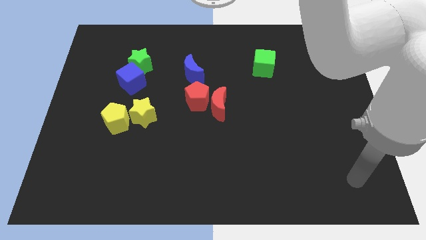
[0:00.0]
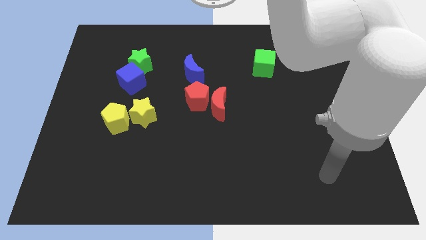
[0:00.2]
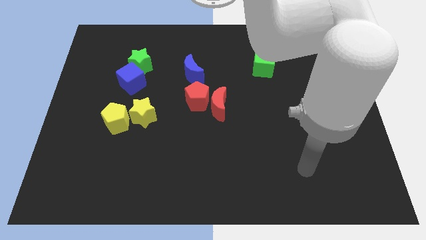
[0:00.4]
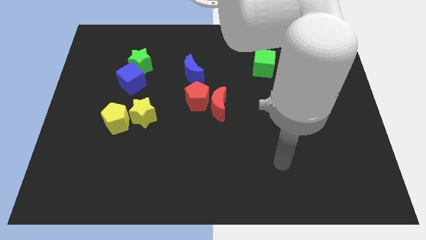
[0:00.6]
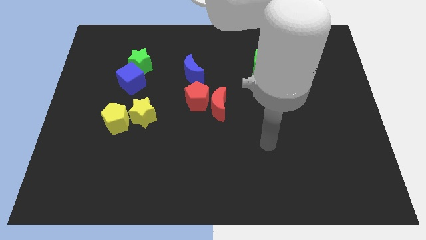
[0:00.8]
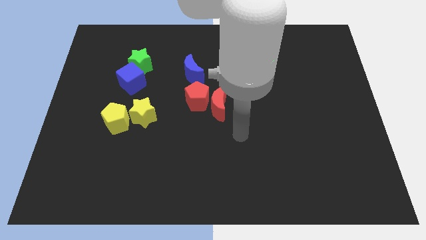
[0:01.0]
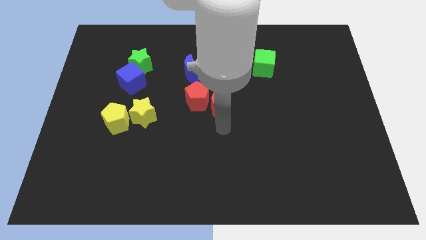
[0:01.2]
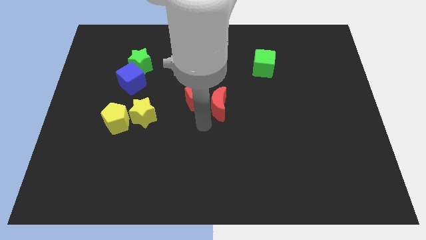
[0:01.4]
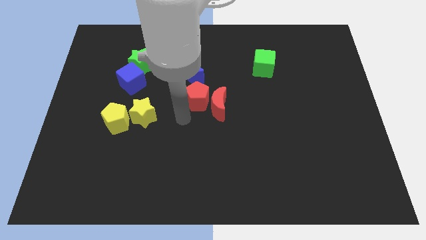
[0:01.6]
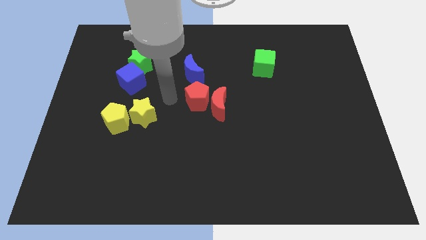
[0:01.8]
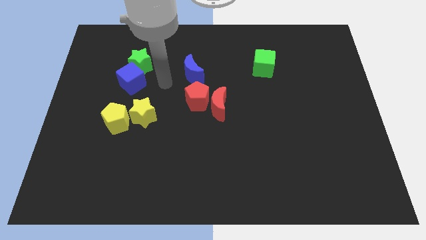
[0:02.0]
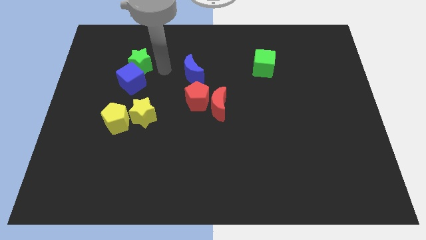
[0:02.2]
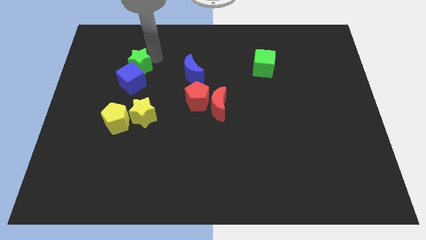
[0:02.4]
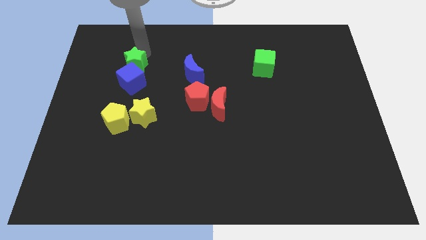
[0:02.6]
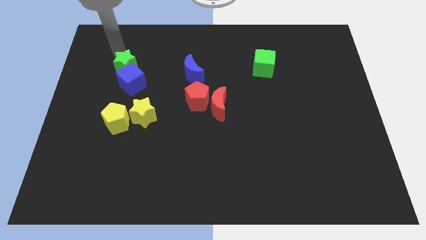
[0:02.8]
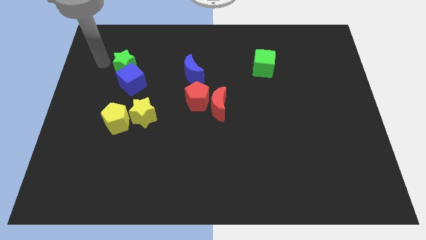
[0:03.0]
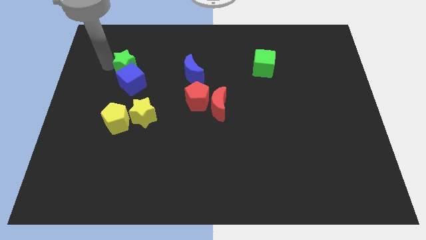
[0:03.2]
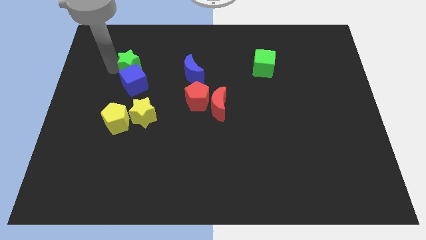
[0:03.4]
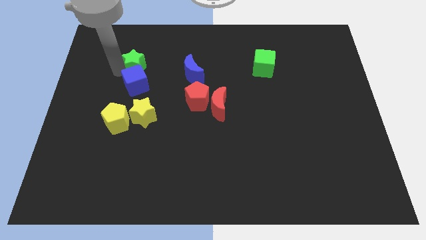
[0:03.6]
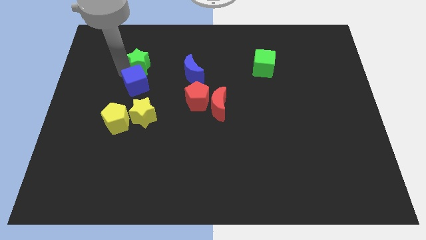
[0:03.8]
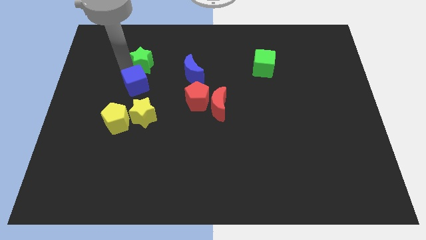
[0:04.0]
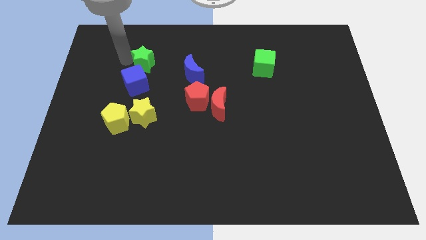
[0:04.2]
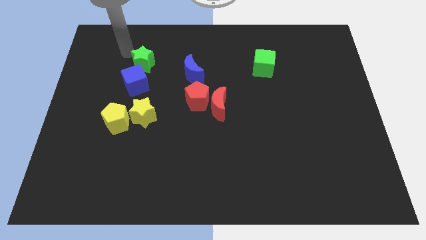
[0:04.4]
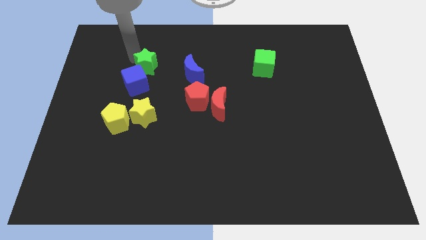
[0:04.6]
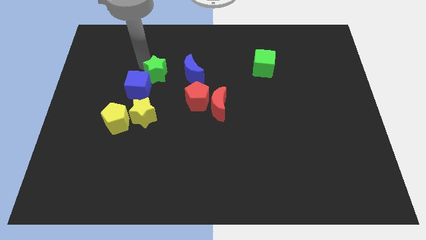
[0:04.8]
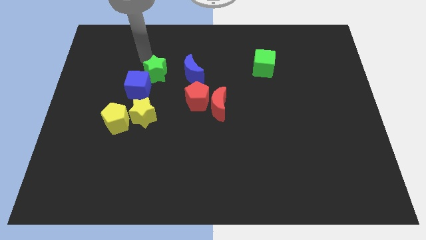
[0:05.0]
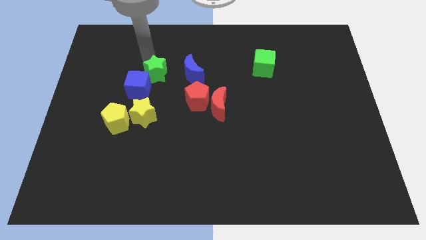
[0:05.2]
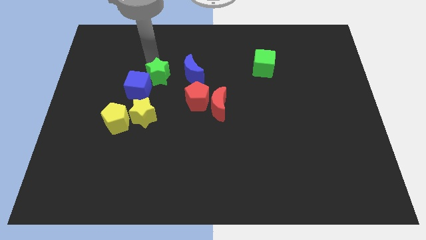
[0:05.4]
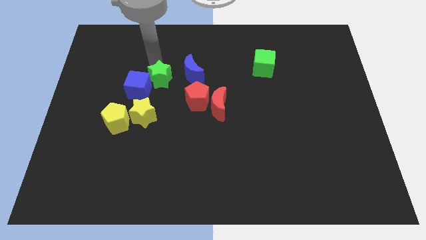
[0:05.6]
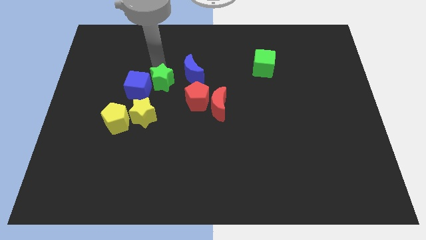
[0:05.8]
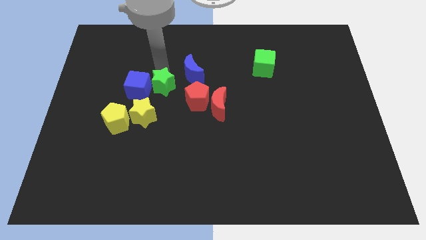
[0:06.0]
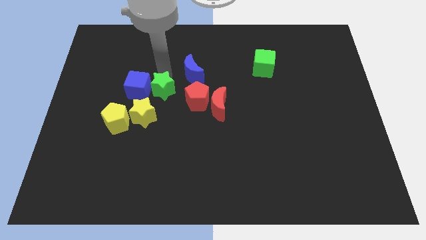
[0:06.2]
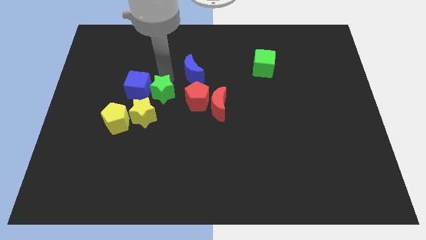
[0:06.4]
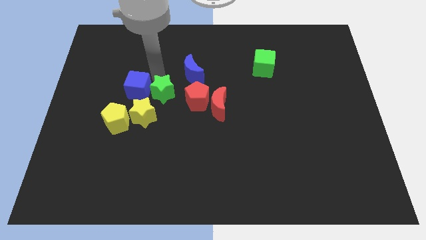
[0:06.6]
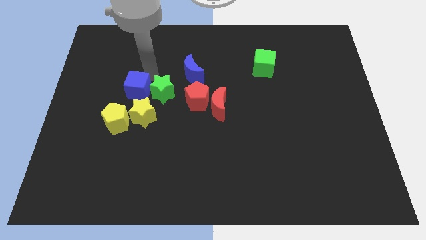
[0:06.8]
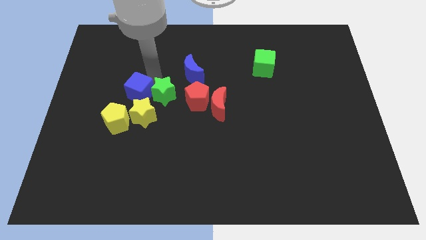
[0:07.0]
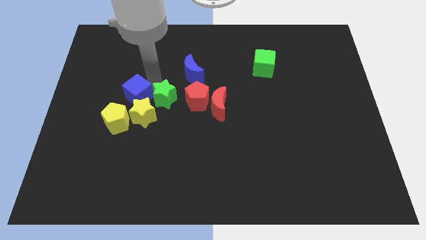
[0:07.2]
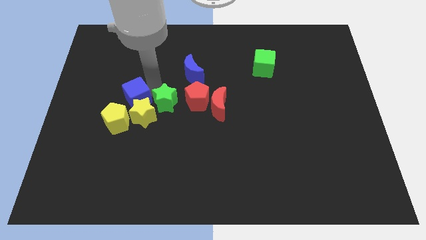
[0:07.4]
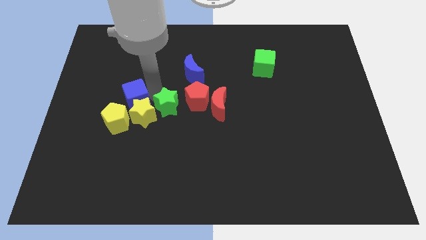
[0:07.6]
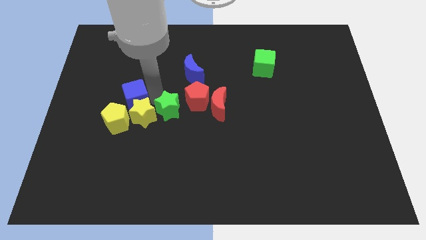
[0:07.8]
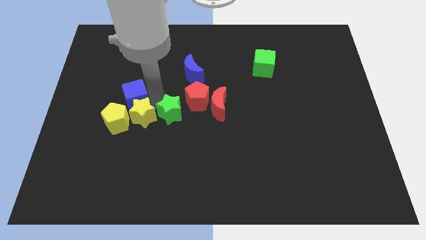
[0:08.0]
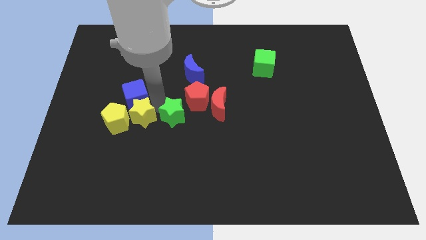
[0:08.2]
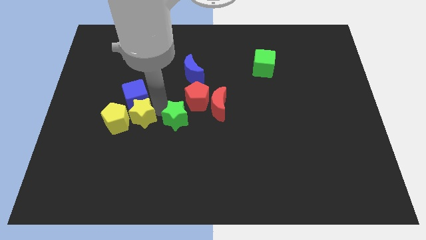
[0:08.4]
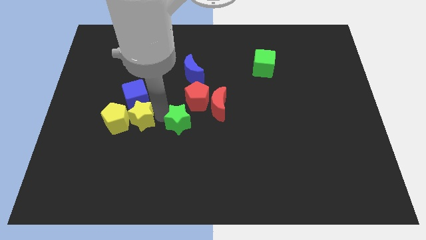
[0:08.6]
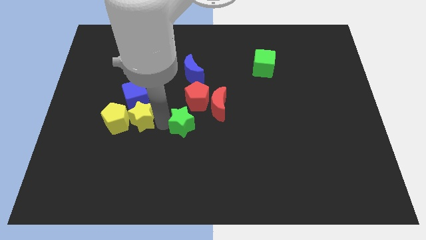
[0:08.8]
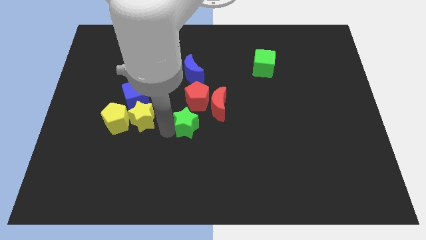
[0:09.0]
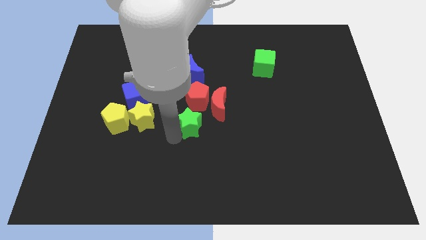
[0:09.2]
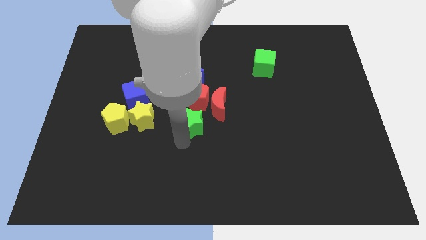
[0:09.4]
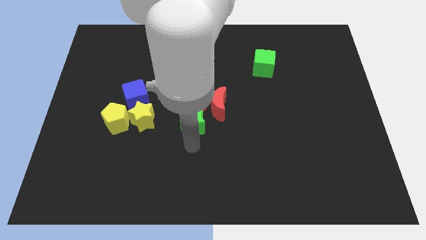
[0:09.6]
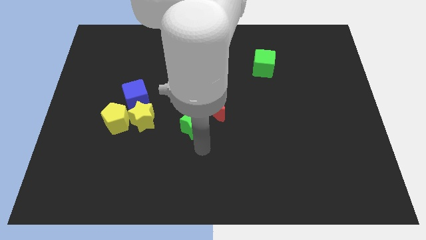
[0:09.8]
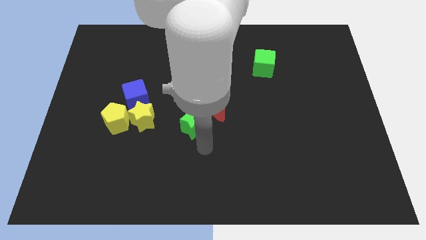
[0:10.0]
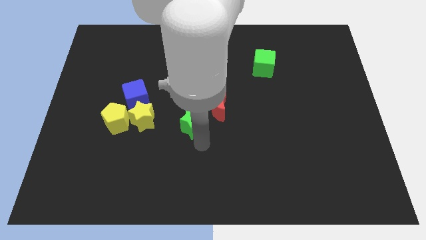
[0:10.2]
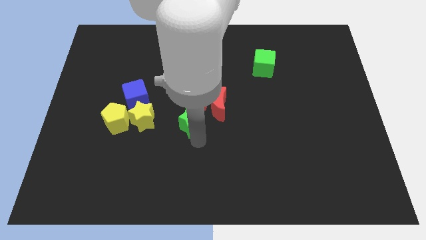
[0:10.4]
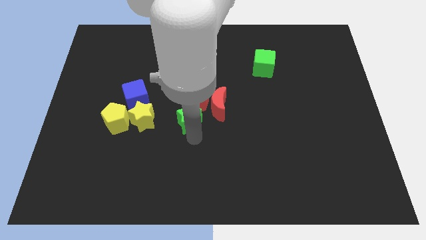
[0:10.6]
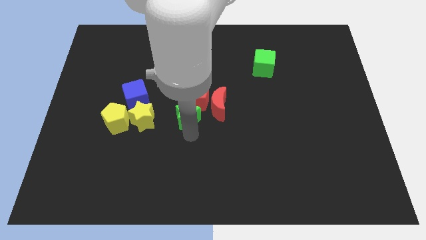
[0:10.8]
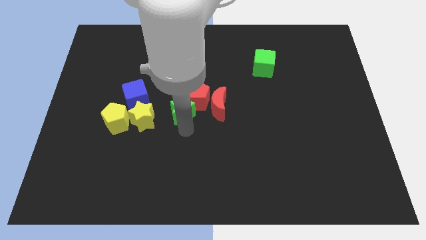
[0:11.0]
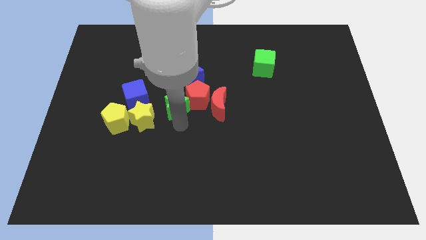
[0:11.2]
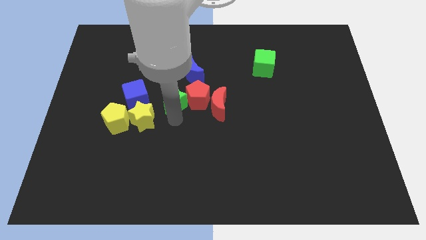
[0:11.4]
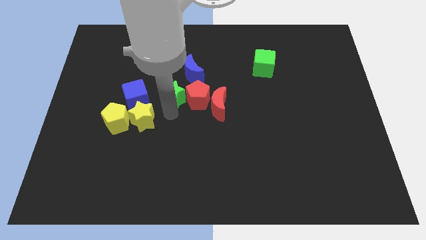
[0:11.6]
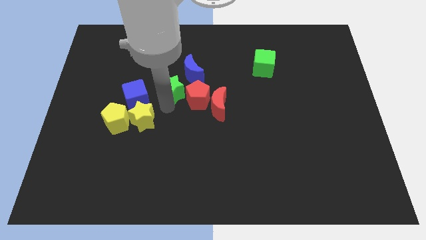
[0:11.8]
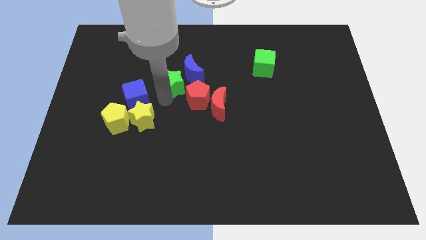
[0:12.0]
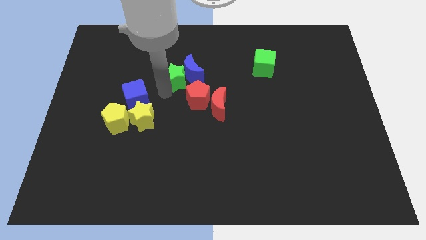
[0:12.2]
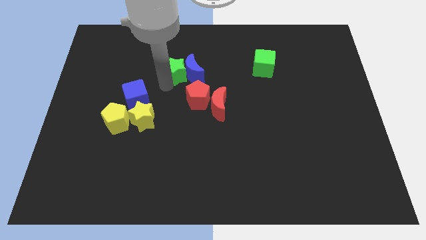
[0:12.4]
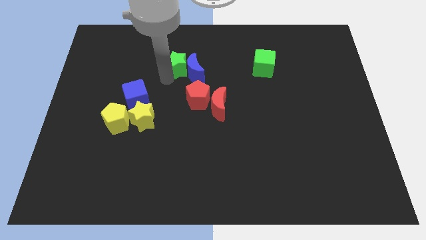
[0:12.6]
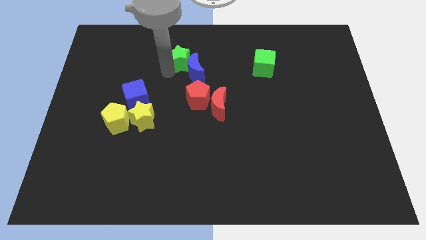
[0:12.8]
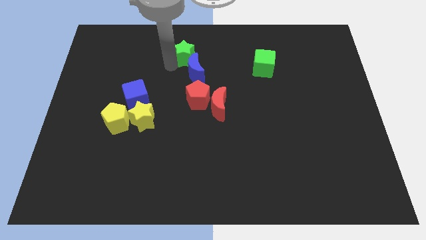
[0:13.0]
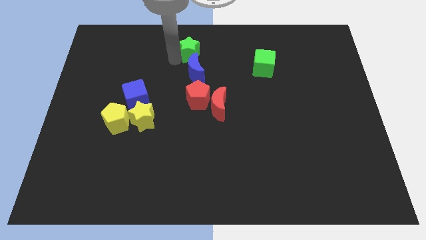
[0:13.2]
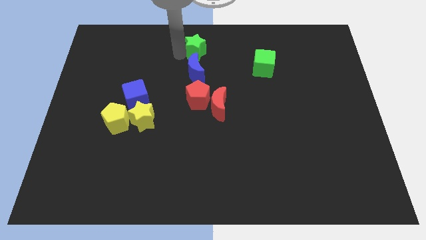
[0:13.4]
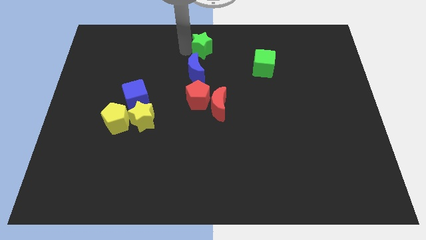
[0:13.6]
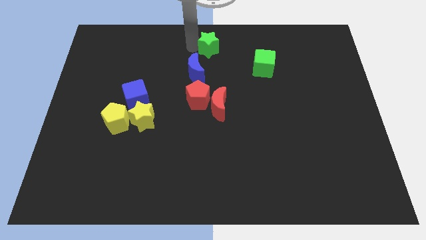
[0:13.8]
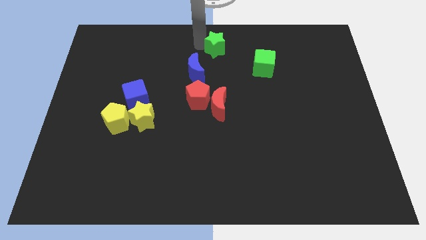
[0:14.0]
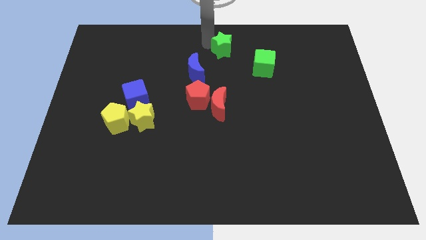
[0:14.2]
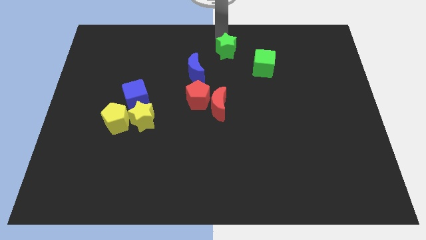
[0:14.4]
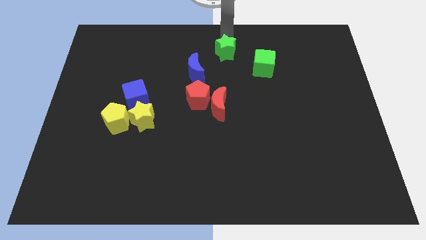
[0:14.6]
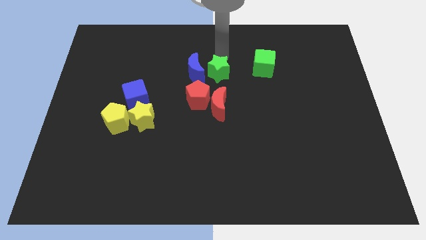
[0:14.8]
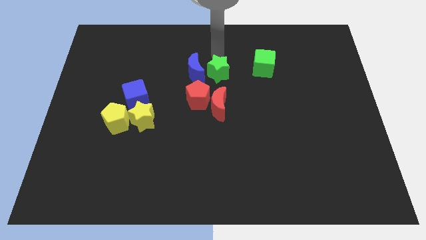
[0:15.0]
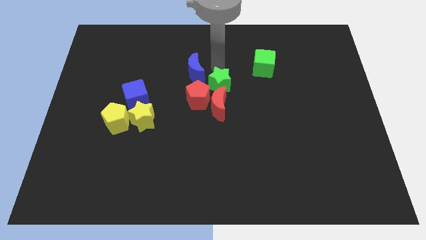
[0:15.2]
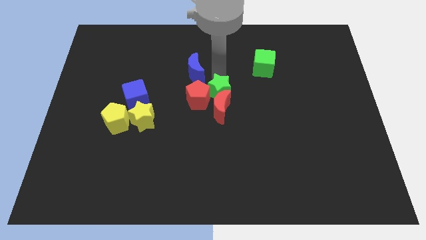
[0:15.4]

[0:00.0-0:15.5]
put the green star towards the red moon
